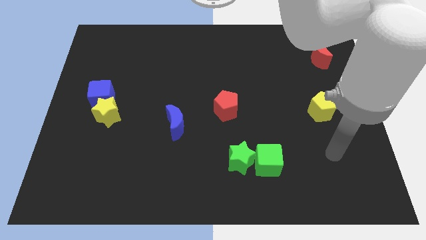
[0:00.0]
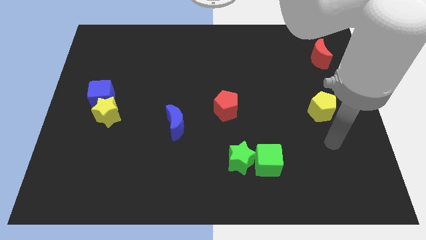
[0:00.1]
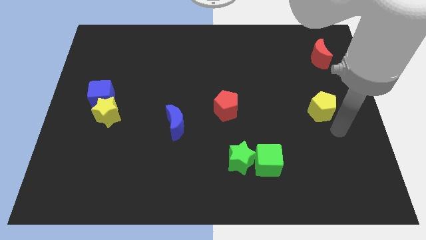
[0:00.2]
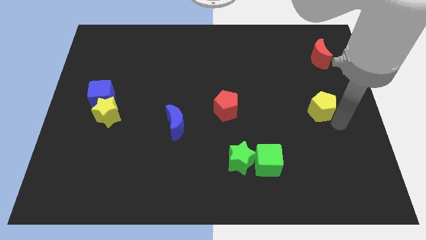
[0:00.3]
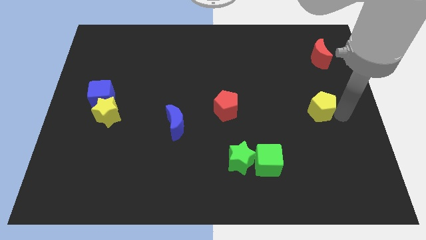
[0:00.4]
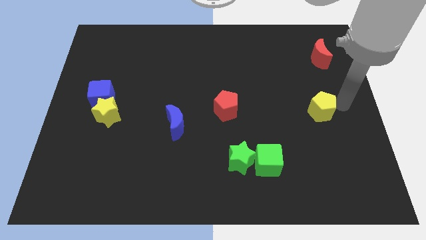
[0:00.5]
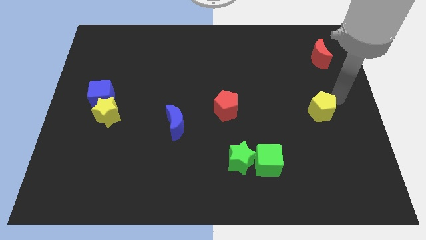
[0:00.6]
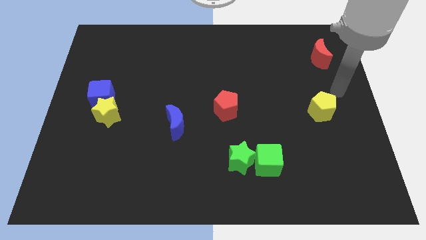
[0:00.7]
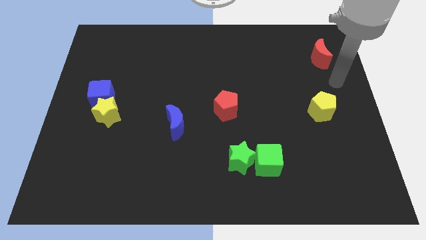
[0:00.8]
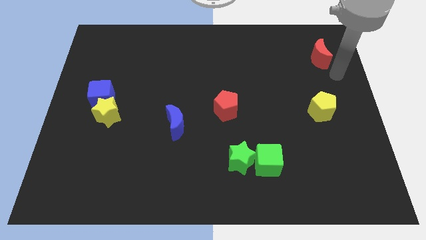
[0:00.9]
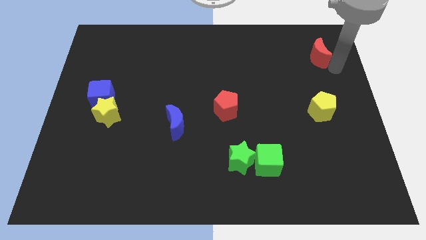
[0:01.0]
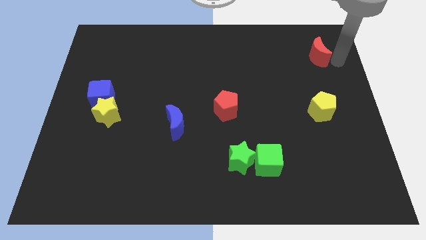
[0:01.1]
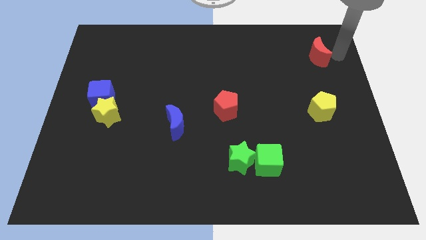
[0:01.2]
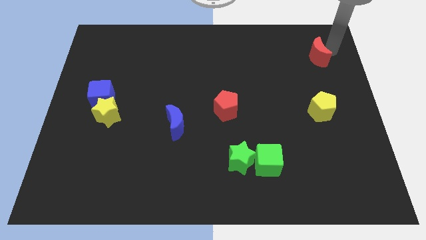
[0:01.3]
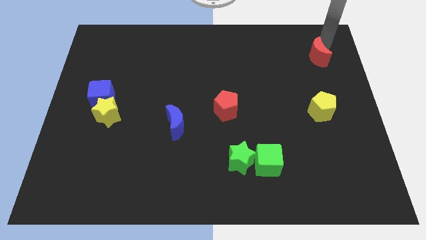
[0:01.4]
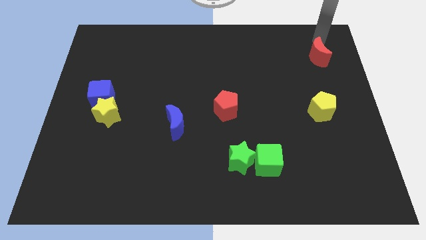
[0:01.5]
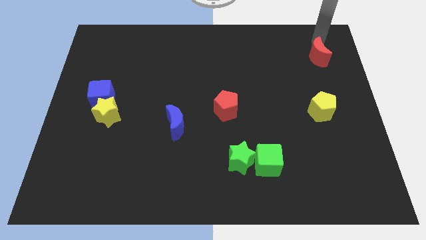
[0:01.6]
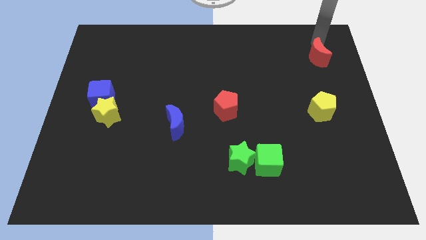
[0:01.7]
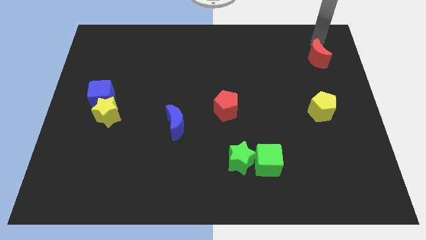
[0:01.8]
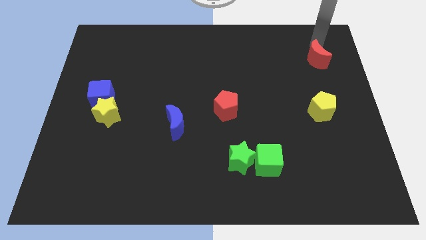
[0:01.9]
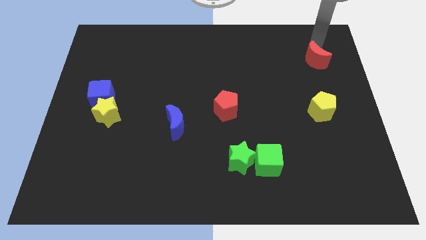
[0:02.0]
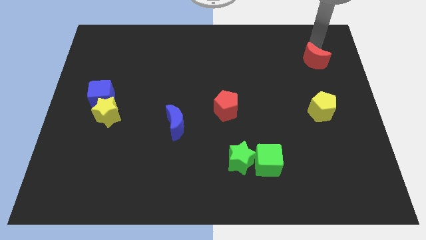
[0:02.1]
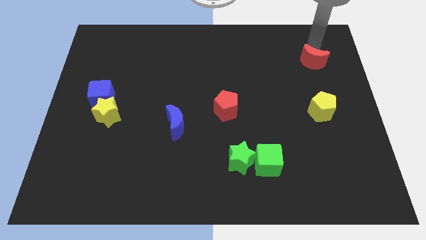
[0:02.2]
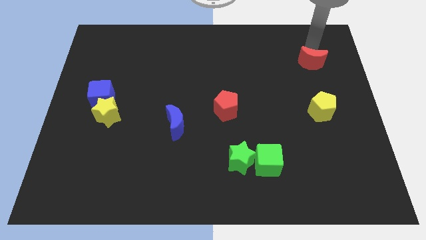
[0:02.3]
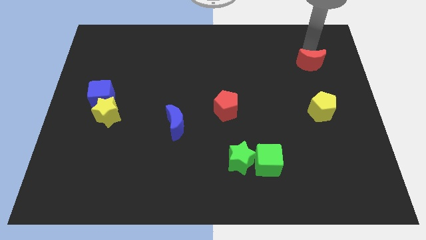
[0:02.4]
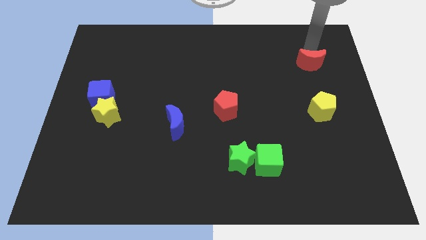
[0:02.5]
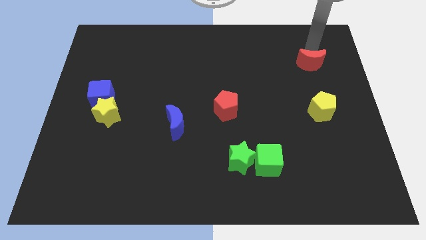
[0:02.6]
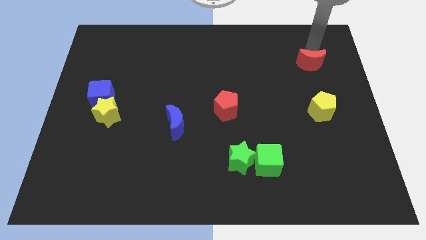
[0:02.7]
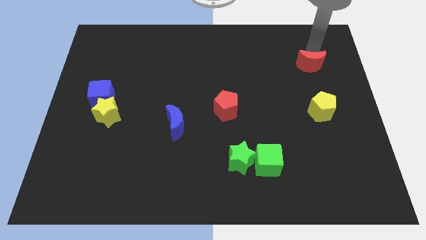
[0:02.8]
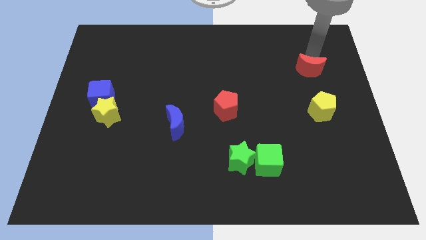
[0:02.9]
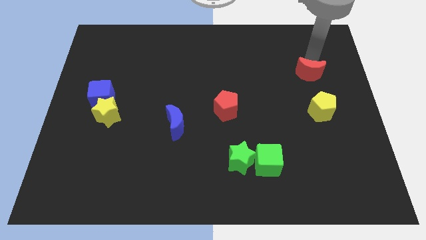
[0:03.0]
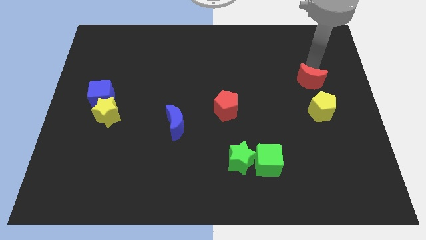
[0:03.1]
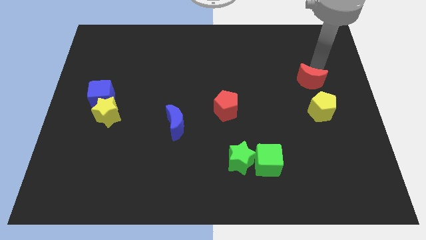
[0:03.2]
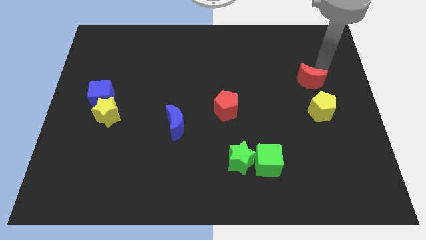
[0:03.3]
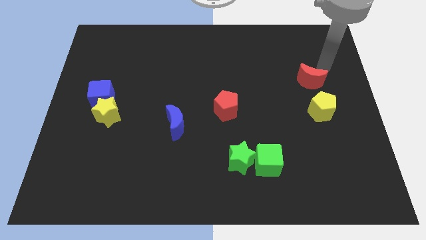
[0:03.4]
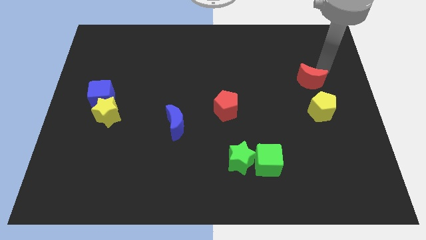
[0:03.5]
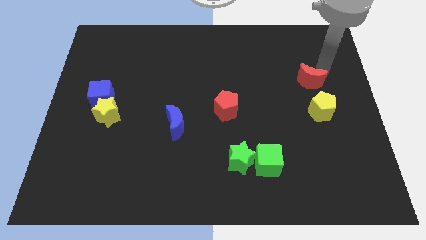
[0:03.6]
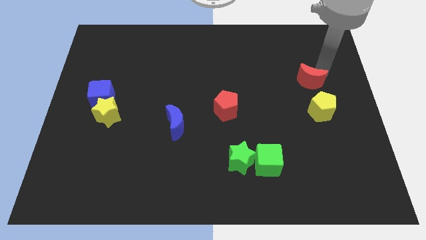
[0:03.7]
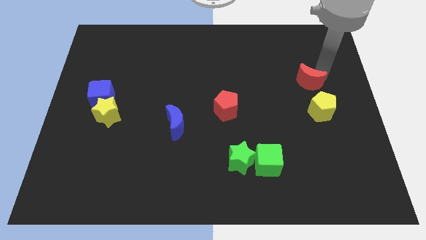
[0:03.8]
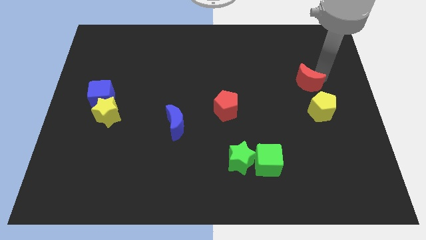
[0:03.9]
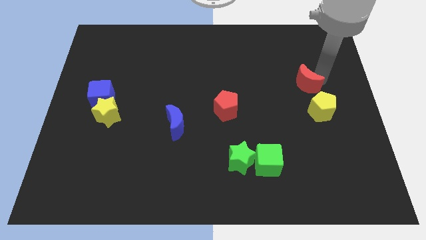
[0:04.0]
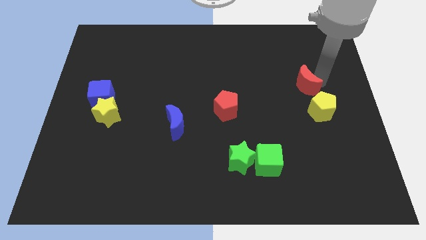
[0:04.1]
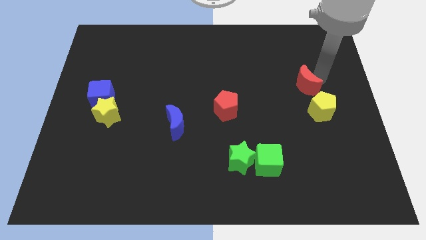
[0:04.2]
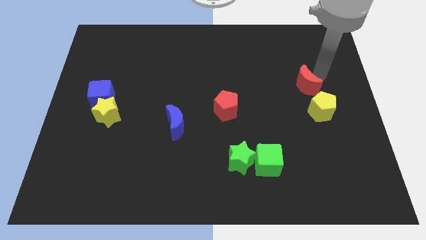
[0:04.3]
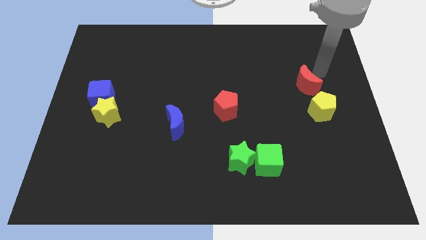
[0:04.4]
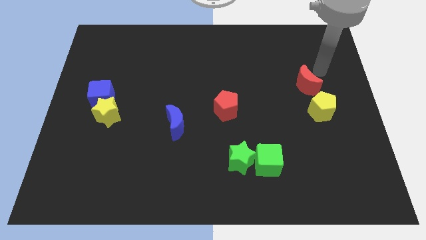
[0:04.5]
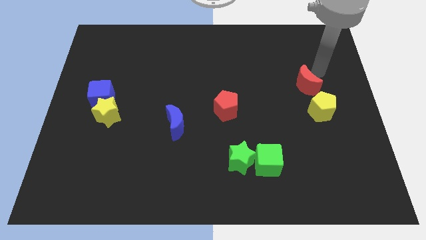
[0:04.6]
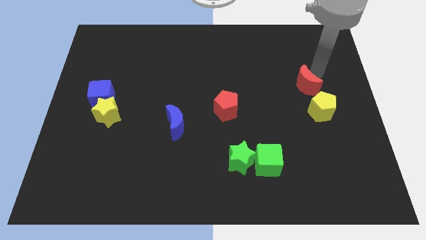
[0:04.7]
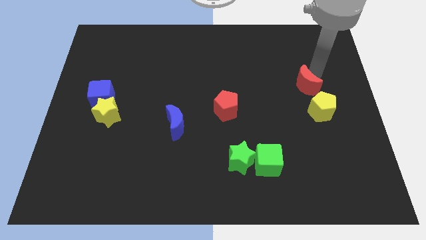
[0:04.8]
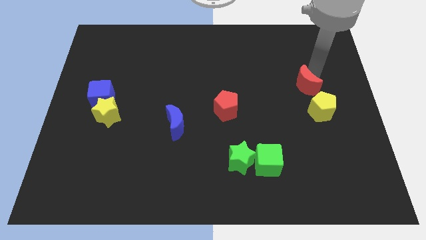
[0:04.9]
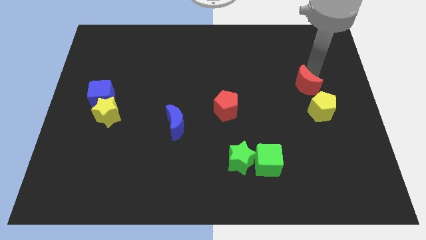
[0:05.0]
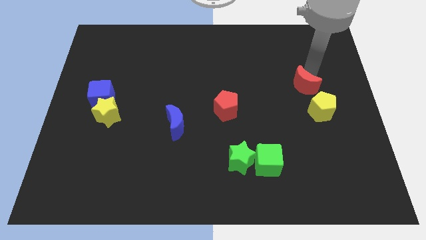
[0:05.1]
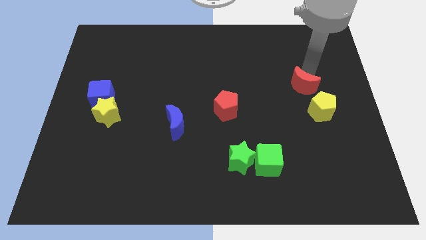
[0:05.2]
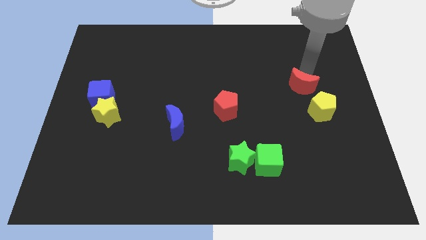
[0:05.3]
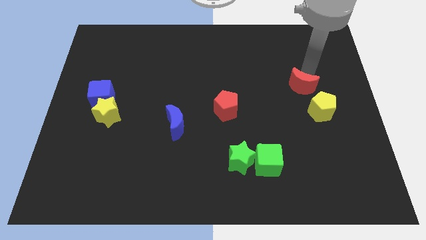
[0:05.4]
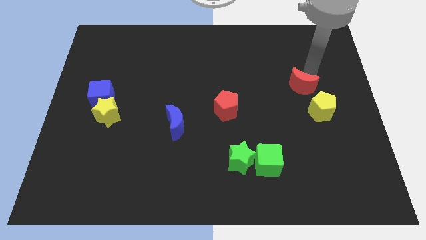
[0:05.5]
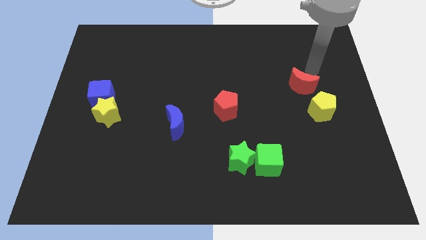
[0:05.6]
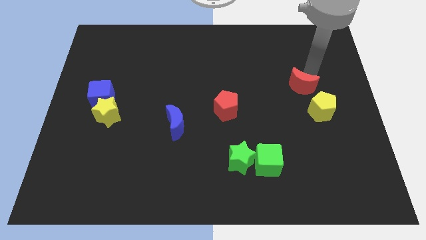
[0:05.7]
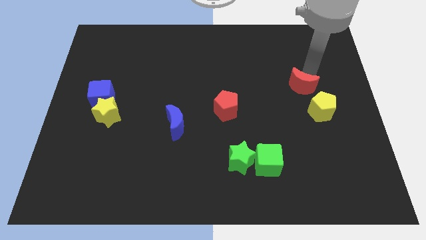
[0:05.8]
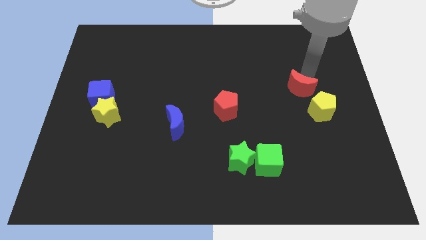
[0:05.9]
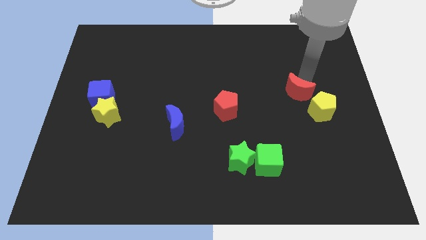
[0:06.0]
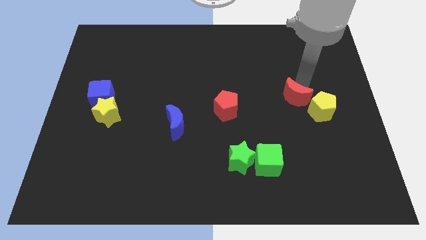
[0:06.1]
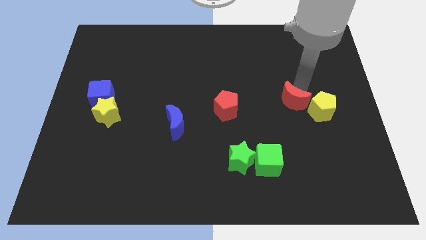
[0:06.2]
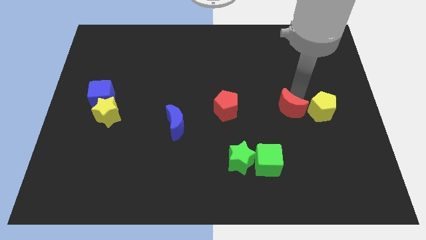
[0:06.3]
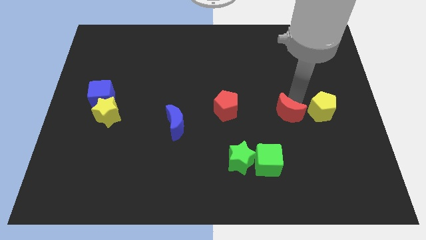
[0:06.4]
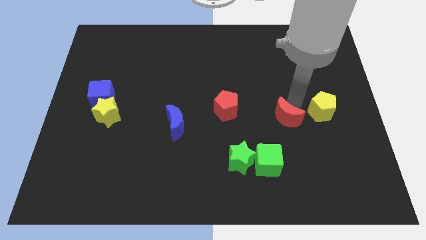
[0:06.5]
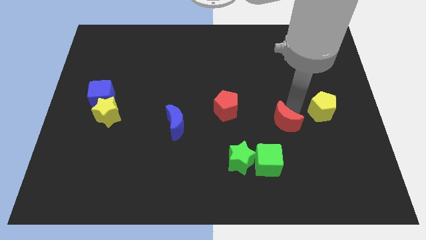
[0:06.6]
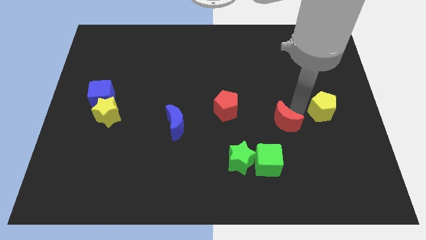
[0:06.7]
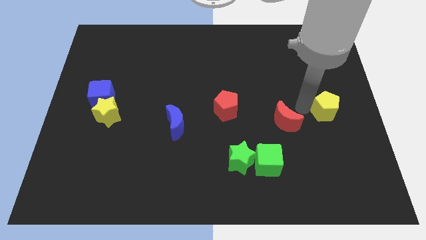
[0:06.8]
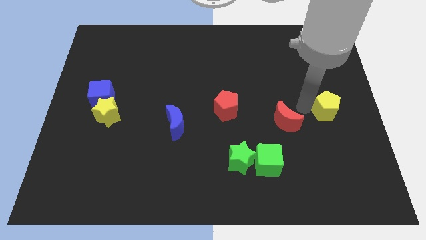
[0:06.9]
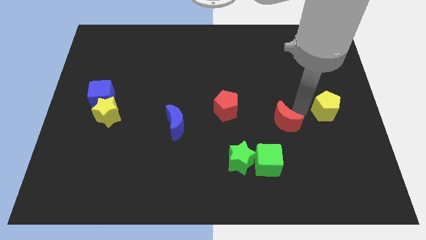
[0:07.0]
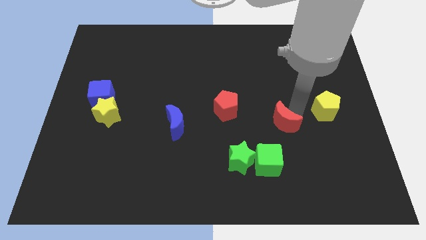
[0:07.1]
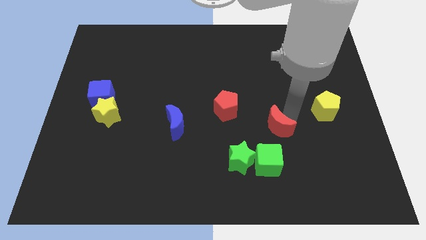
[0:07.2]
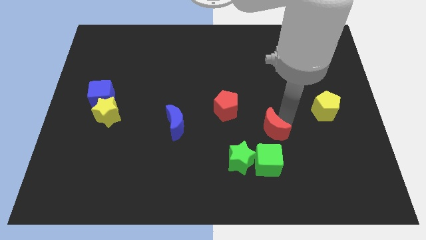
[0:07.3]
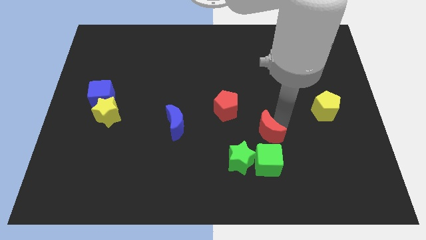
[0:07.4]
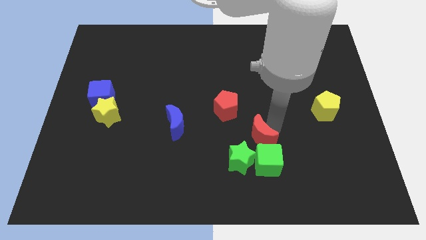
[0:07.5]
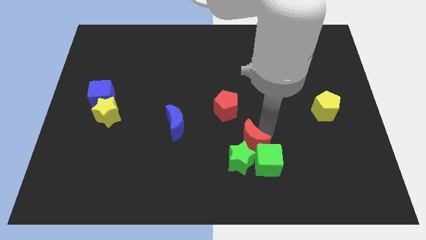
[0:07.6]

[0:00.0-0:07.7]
push the red moon next to the green star
